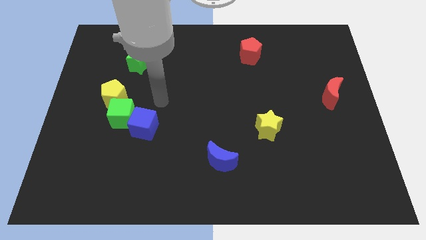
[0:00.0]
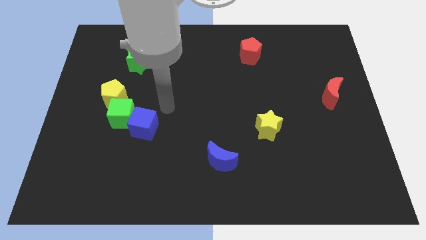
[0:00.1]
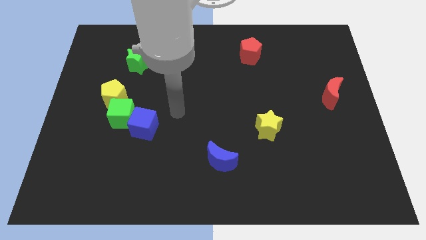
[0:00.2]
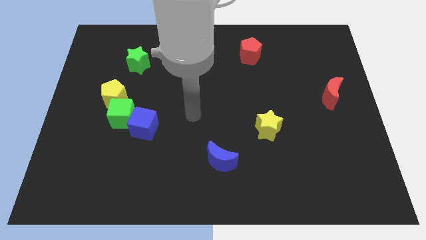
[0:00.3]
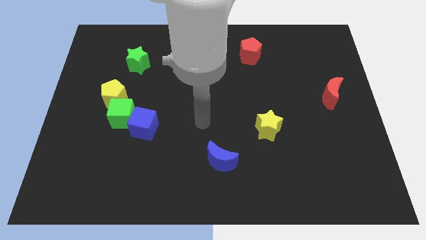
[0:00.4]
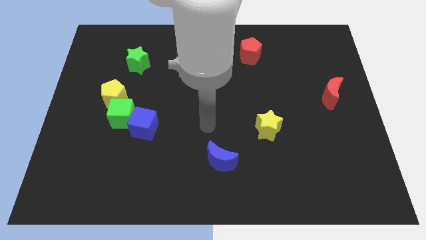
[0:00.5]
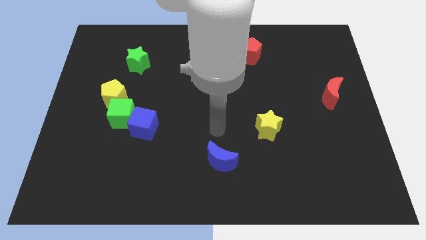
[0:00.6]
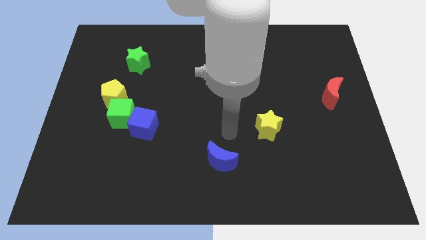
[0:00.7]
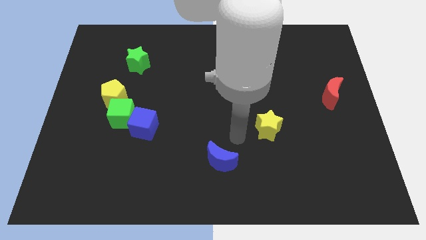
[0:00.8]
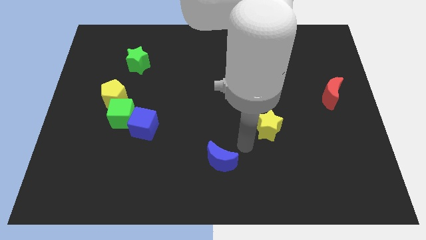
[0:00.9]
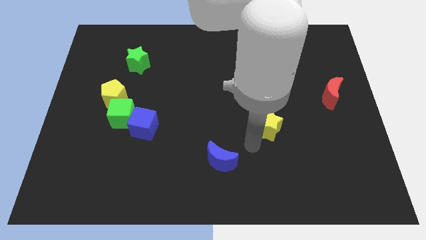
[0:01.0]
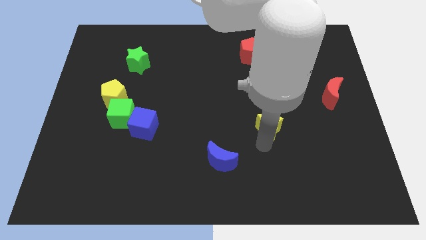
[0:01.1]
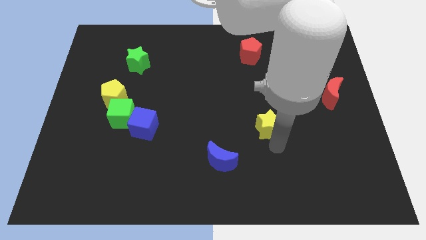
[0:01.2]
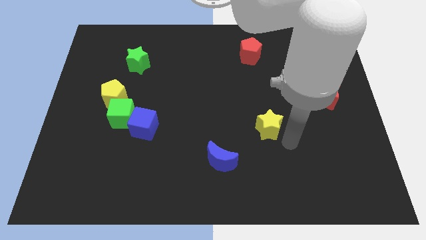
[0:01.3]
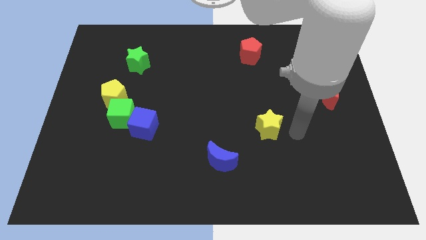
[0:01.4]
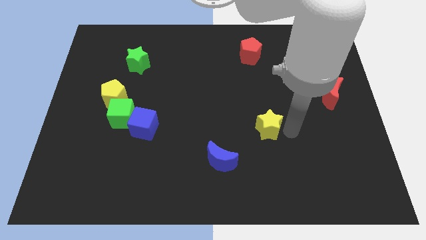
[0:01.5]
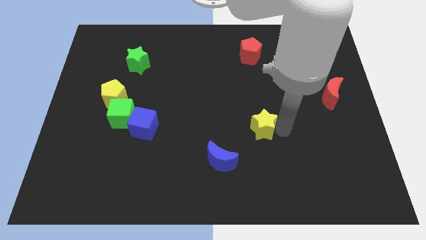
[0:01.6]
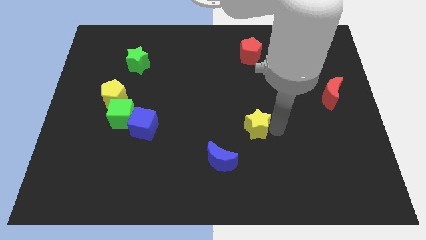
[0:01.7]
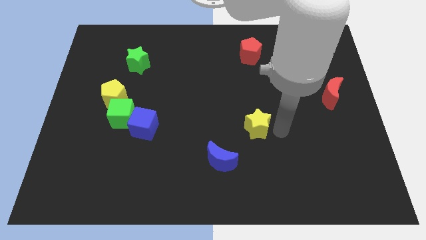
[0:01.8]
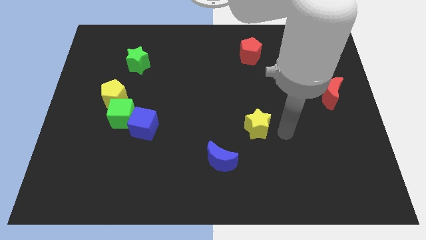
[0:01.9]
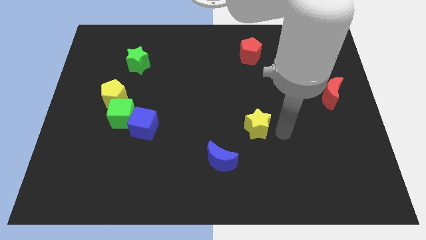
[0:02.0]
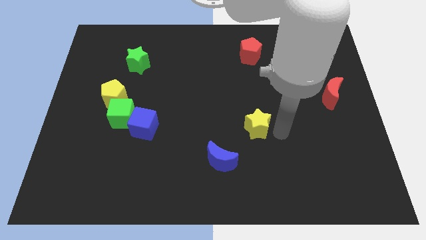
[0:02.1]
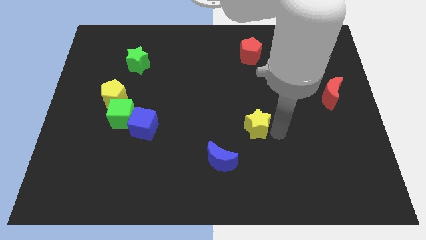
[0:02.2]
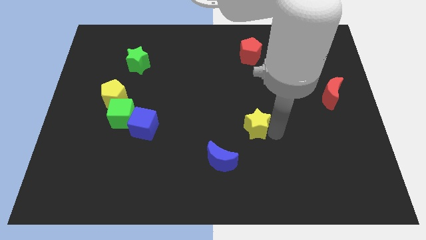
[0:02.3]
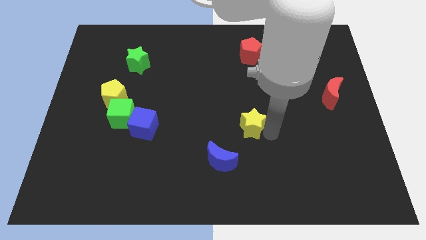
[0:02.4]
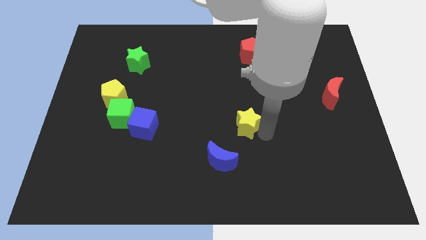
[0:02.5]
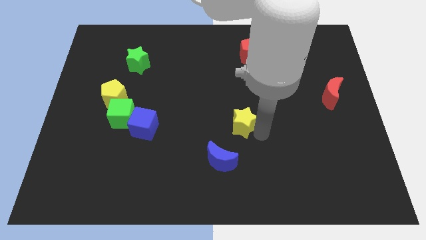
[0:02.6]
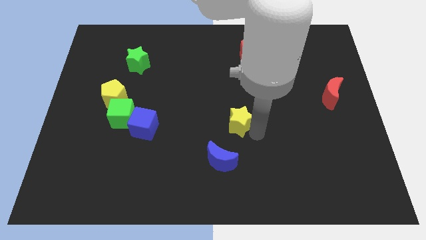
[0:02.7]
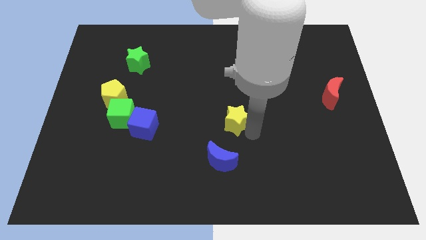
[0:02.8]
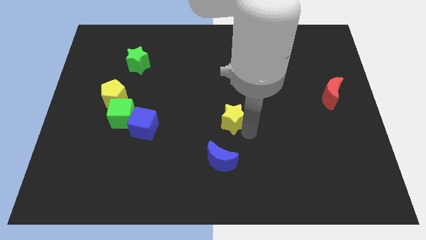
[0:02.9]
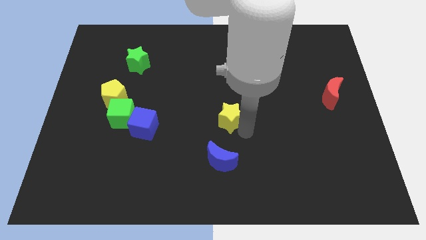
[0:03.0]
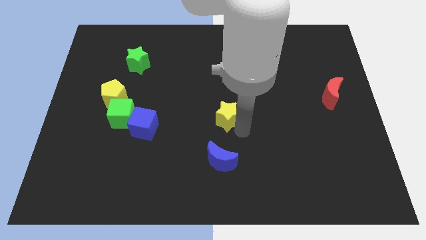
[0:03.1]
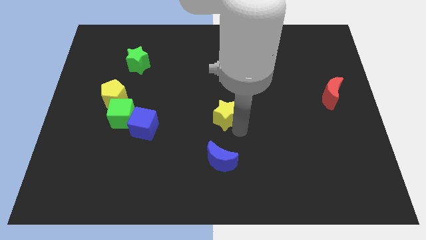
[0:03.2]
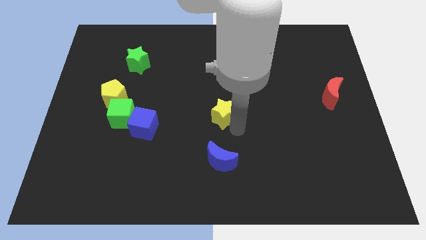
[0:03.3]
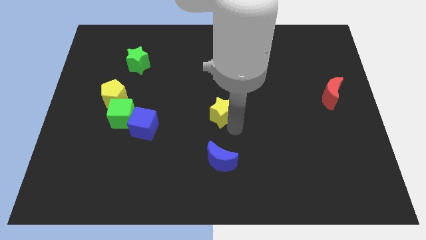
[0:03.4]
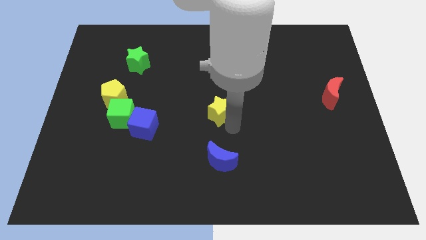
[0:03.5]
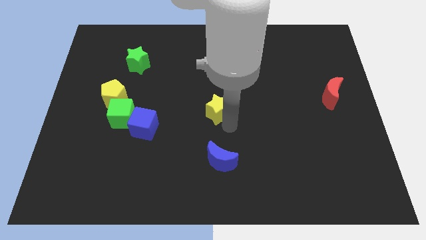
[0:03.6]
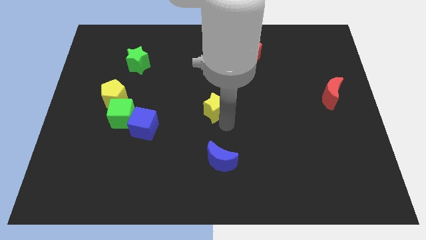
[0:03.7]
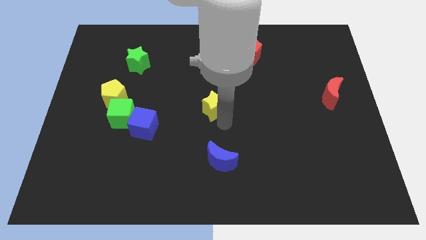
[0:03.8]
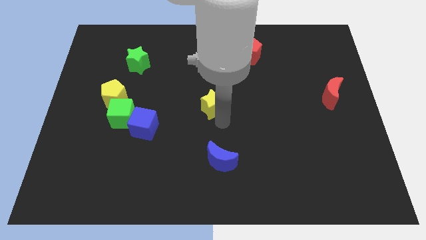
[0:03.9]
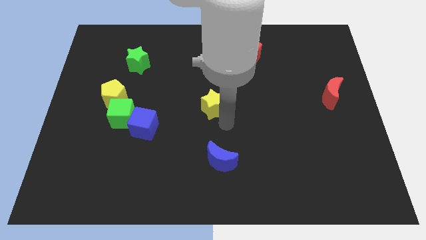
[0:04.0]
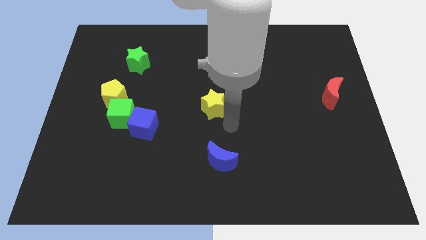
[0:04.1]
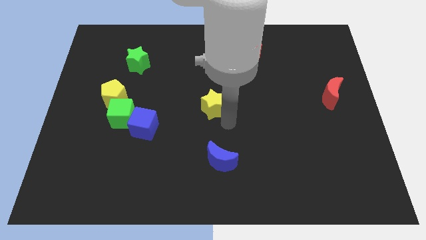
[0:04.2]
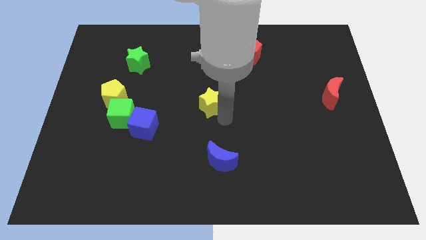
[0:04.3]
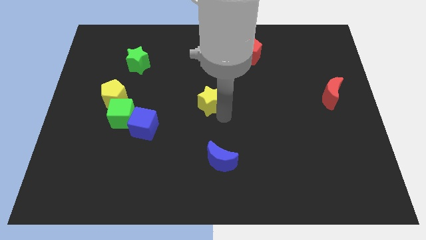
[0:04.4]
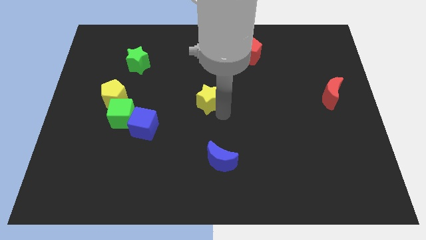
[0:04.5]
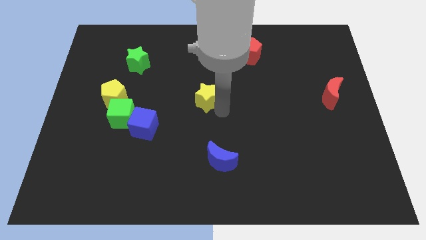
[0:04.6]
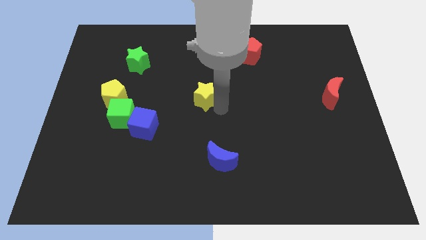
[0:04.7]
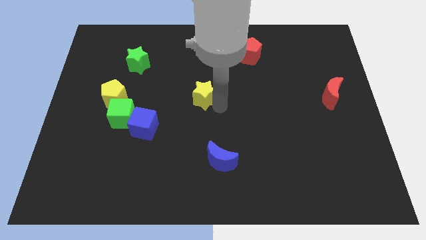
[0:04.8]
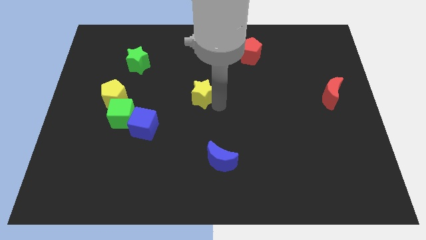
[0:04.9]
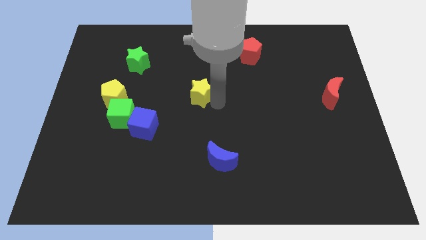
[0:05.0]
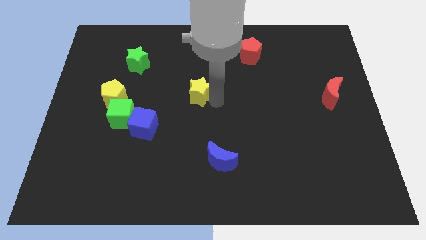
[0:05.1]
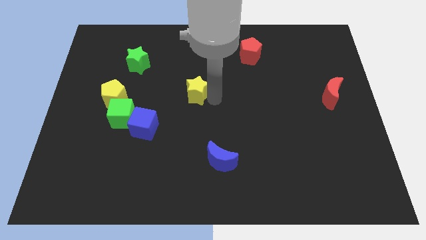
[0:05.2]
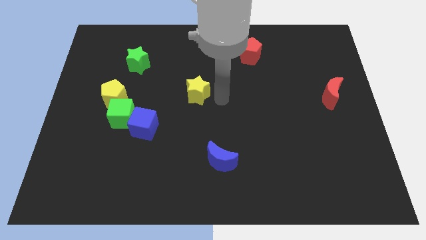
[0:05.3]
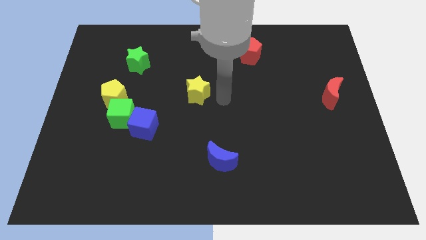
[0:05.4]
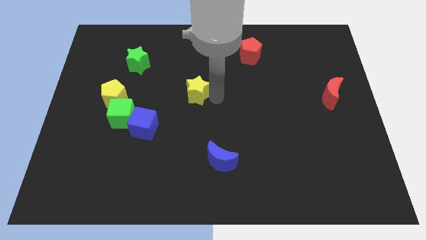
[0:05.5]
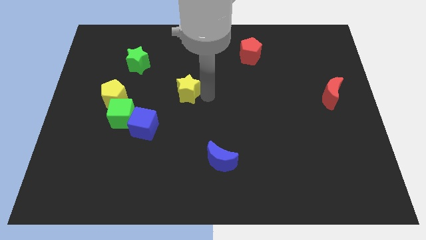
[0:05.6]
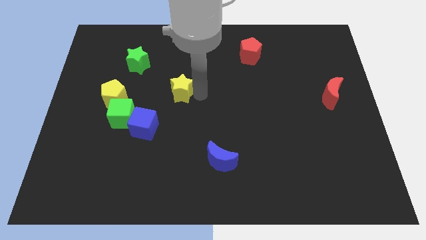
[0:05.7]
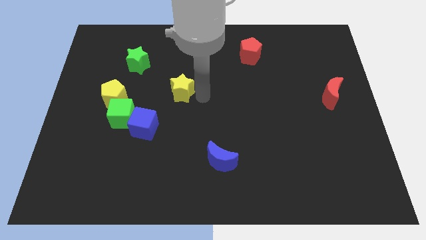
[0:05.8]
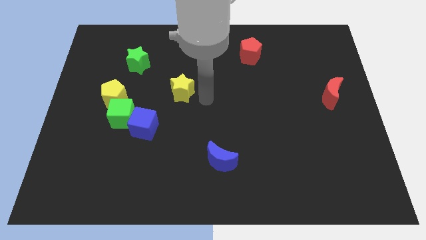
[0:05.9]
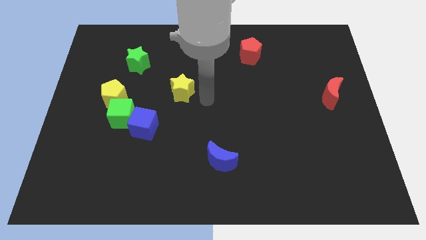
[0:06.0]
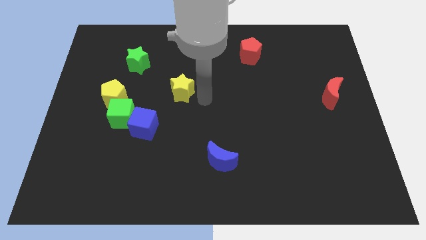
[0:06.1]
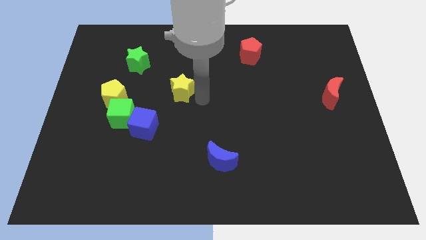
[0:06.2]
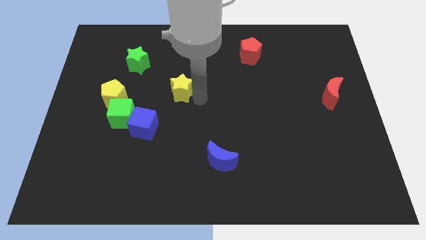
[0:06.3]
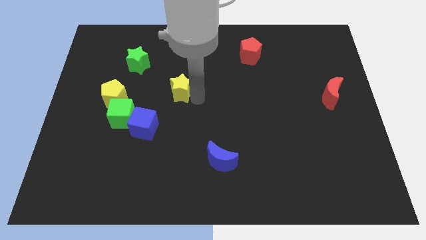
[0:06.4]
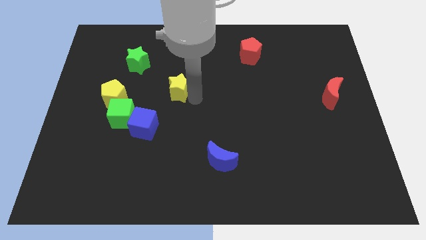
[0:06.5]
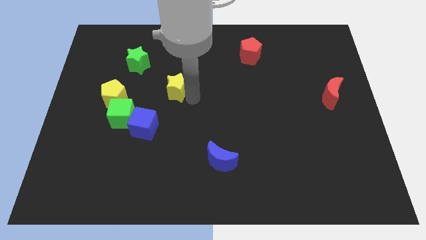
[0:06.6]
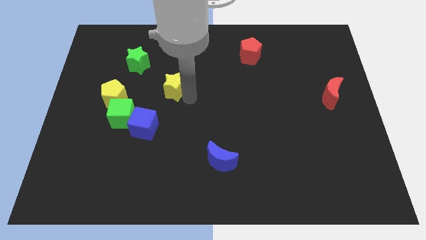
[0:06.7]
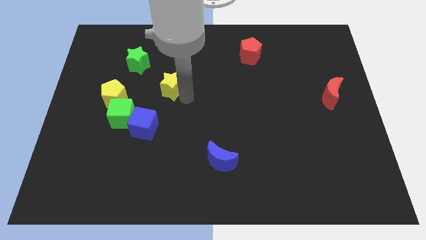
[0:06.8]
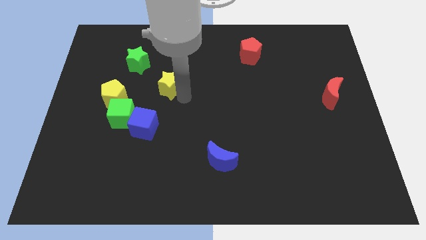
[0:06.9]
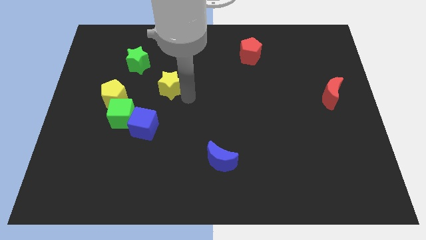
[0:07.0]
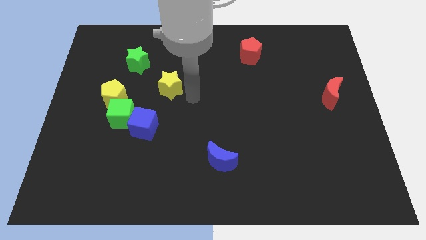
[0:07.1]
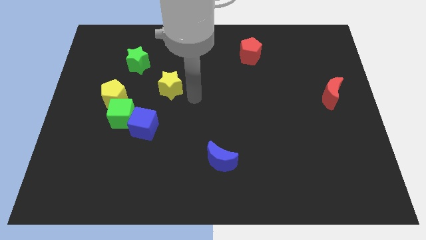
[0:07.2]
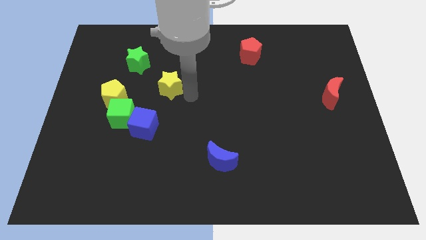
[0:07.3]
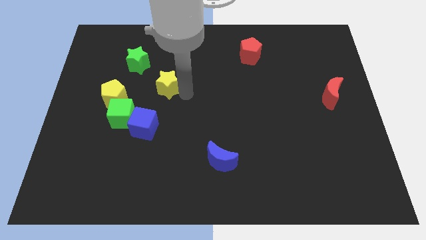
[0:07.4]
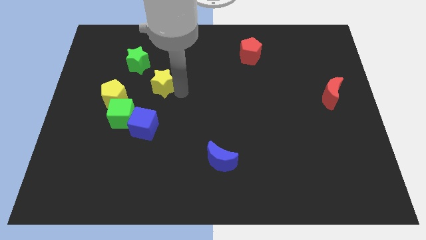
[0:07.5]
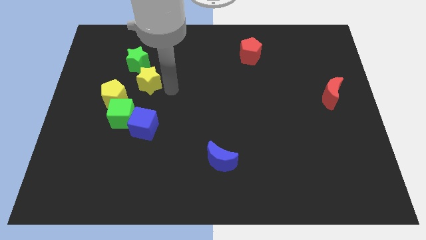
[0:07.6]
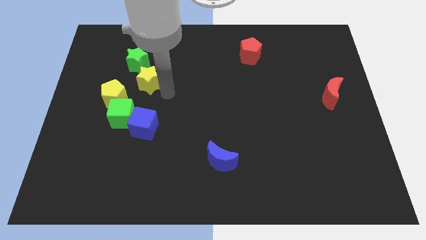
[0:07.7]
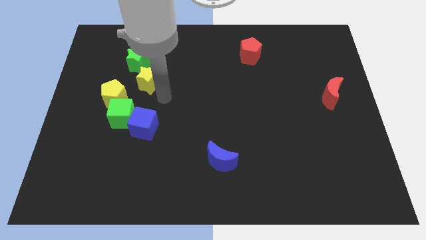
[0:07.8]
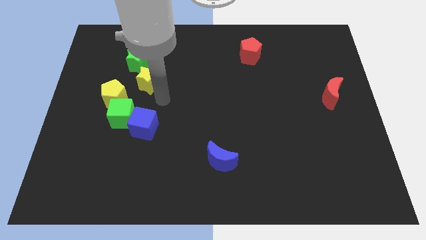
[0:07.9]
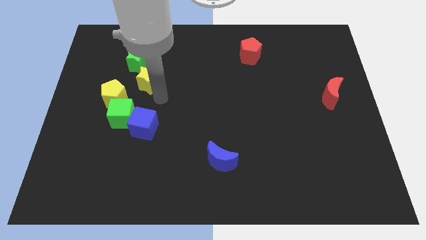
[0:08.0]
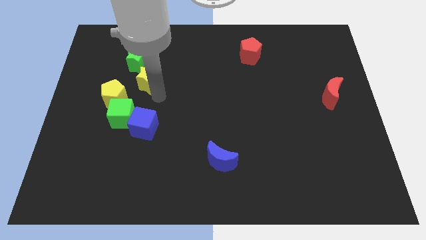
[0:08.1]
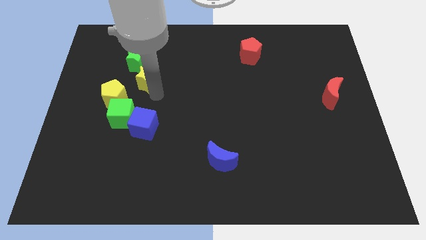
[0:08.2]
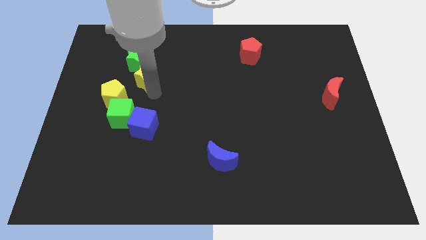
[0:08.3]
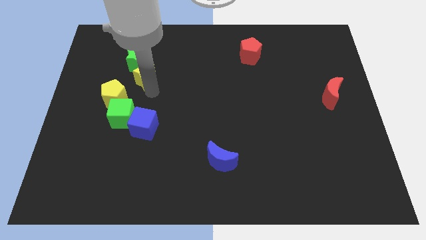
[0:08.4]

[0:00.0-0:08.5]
push the yellow star close to the green star
